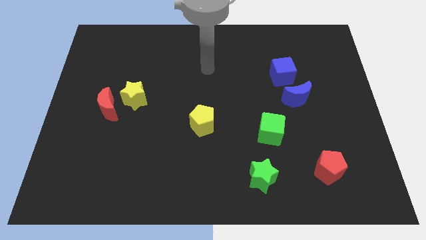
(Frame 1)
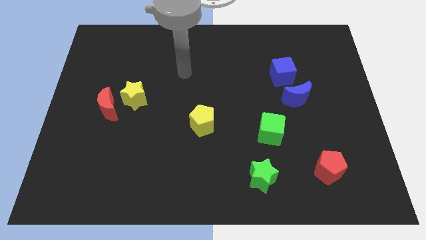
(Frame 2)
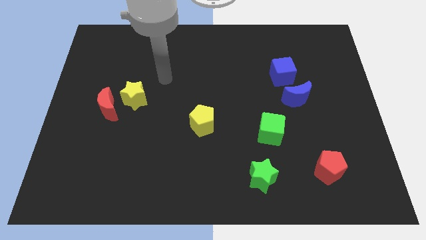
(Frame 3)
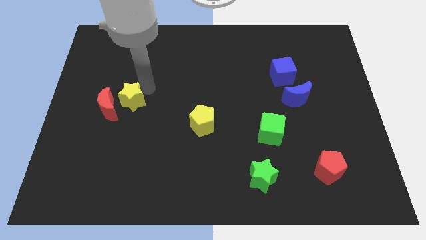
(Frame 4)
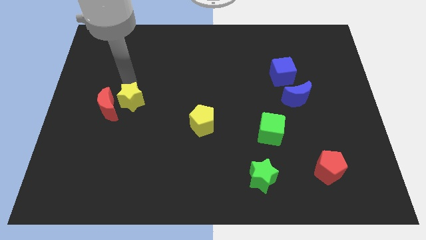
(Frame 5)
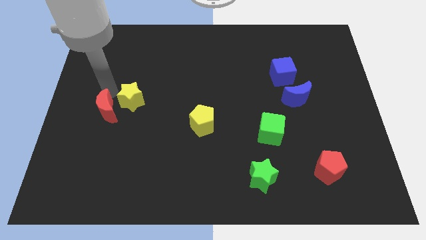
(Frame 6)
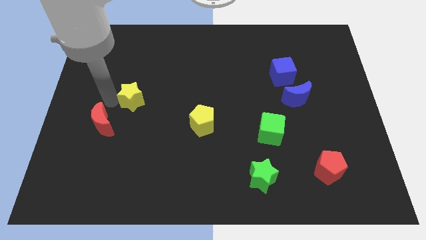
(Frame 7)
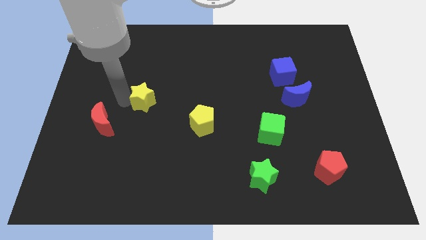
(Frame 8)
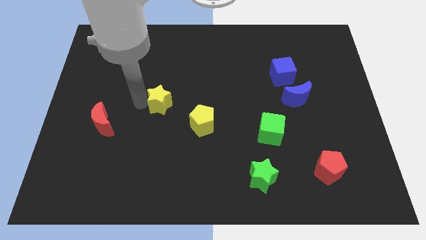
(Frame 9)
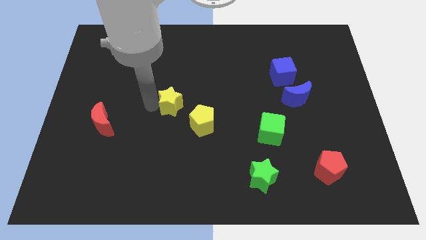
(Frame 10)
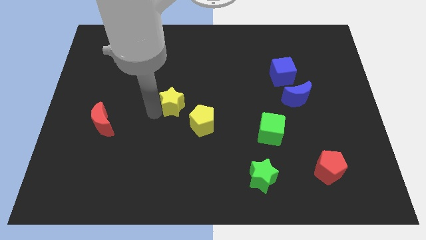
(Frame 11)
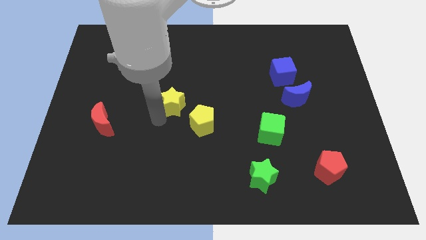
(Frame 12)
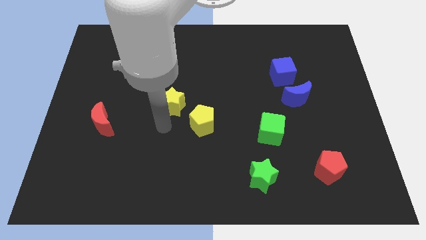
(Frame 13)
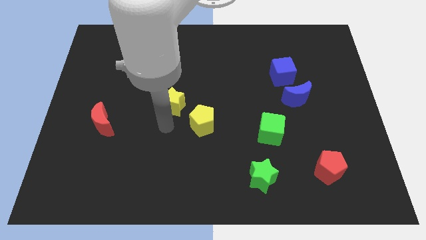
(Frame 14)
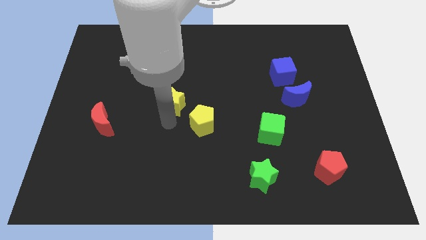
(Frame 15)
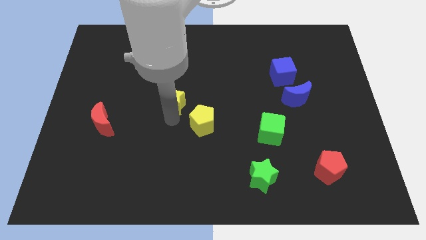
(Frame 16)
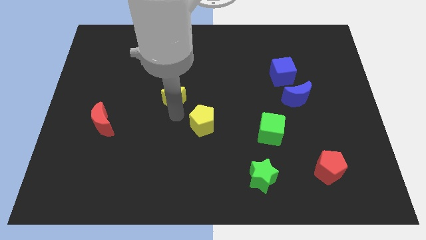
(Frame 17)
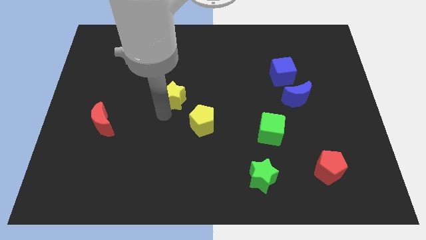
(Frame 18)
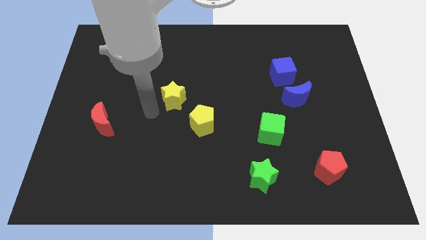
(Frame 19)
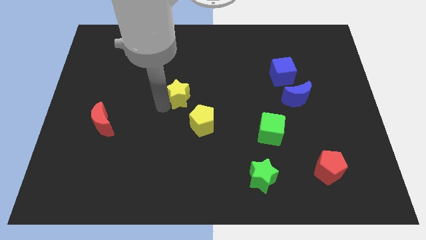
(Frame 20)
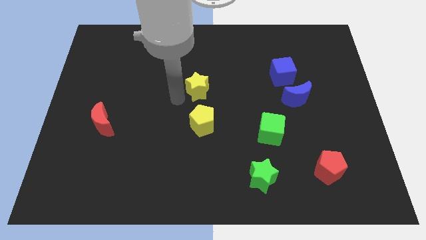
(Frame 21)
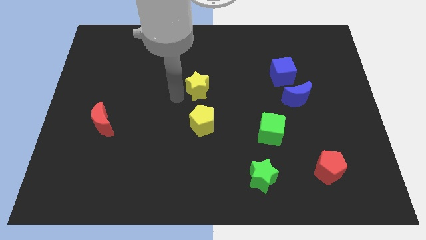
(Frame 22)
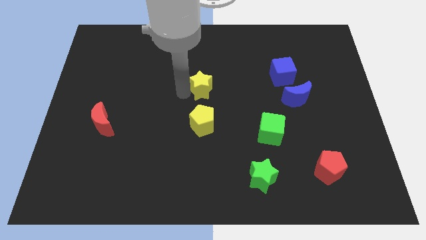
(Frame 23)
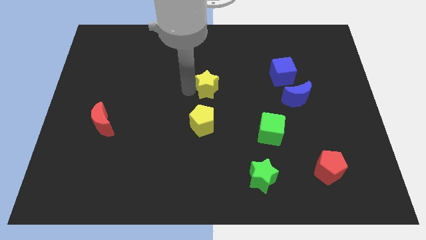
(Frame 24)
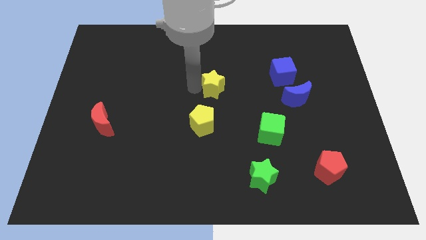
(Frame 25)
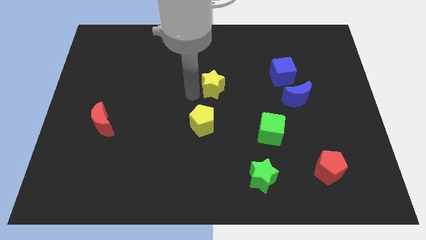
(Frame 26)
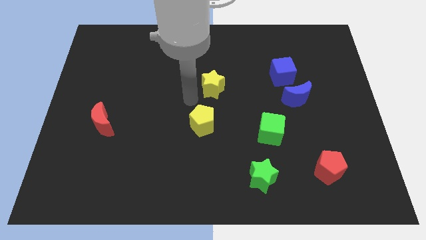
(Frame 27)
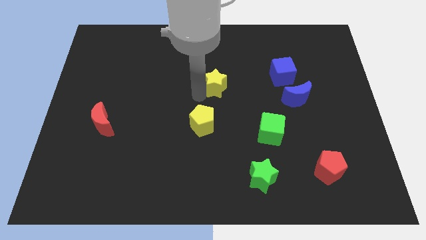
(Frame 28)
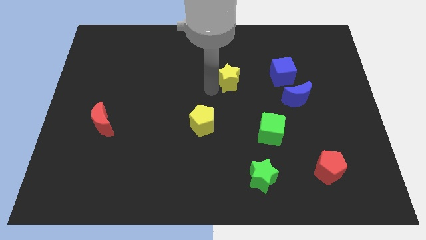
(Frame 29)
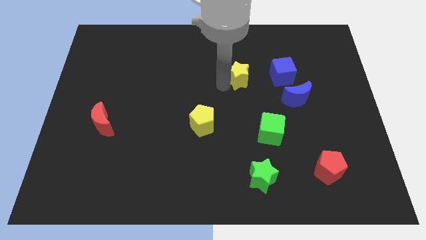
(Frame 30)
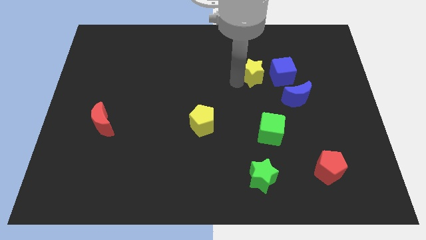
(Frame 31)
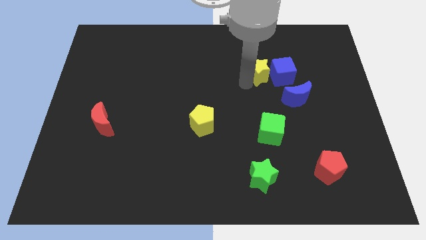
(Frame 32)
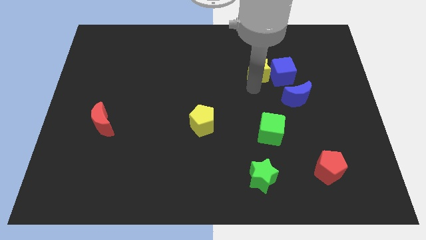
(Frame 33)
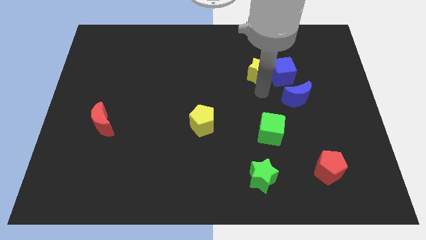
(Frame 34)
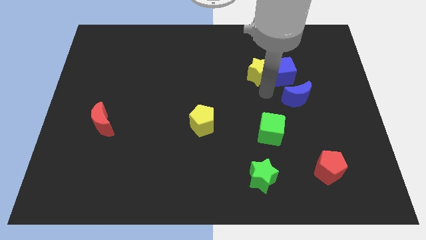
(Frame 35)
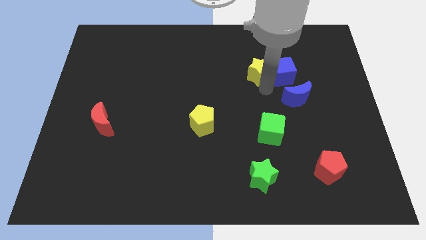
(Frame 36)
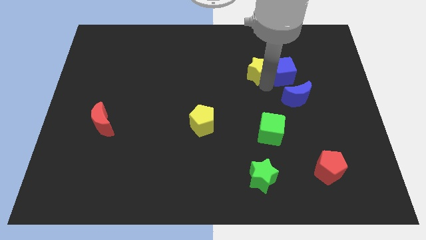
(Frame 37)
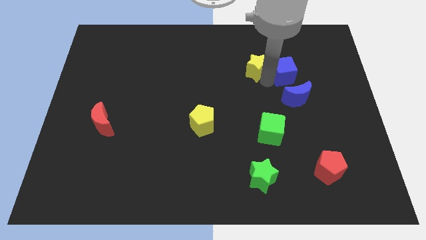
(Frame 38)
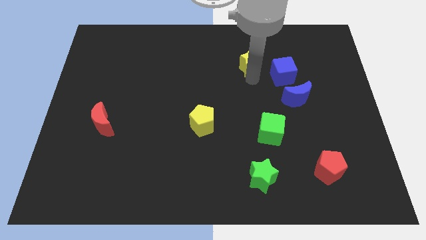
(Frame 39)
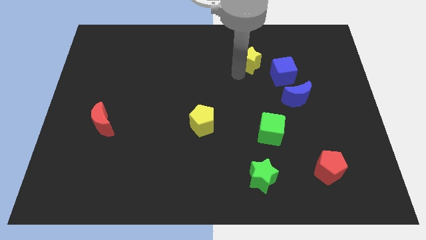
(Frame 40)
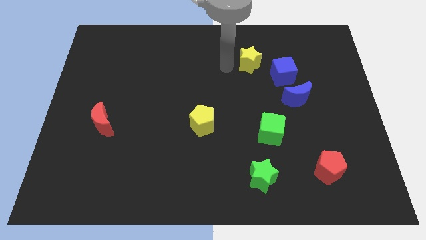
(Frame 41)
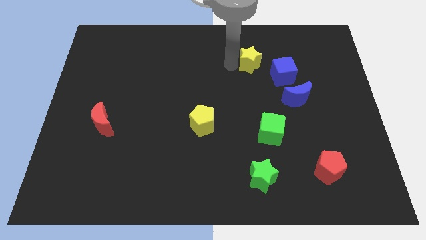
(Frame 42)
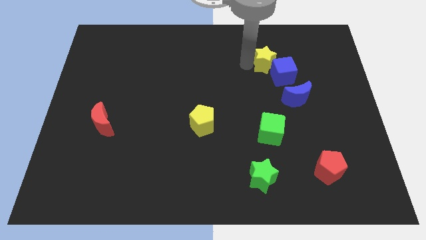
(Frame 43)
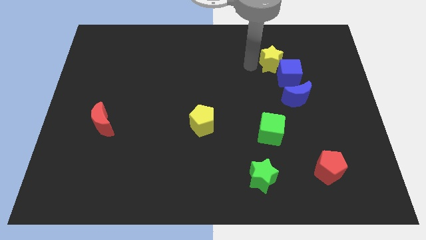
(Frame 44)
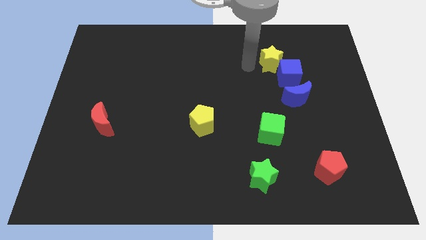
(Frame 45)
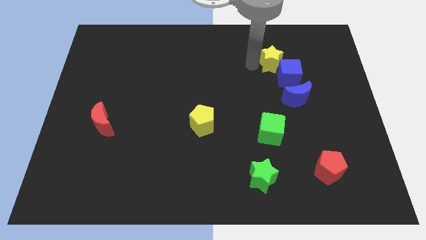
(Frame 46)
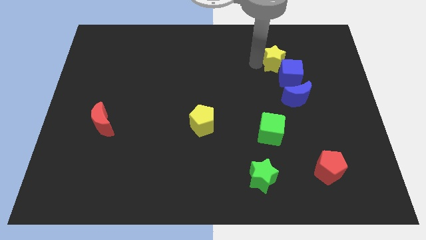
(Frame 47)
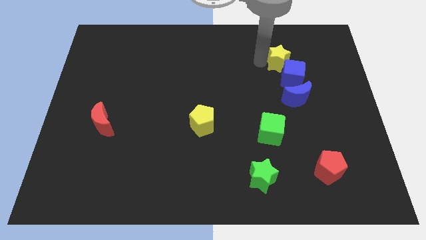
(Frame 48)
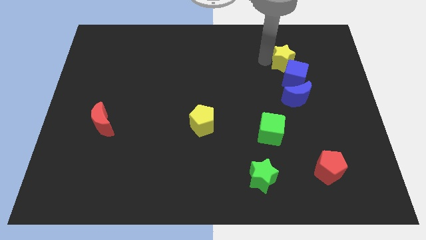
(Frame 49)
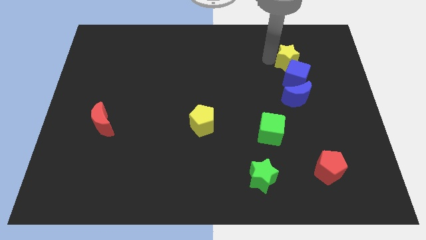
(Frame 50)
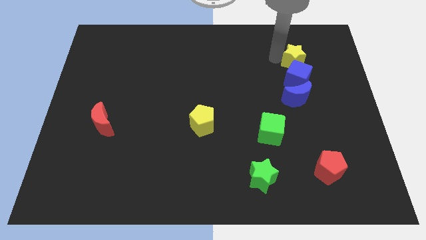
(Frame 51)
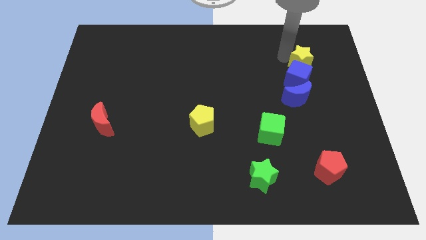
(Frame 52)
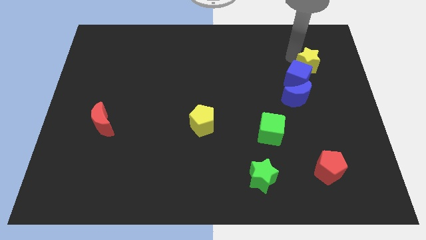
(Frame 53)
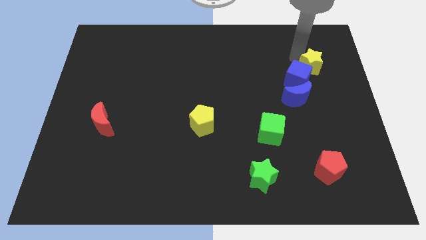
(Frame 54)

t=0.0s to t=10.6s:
move the yellow star to the right side of the blue cube

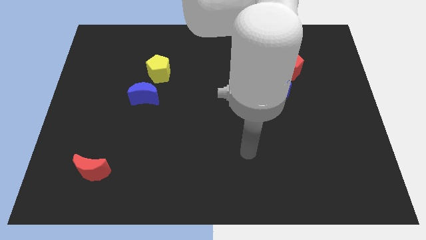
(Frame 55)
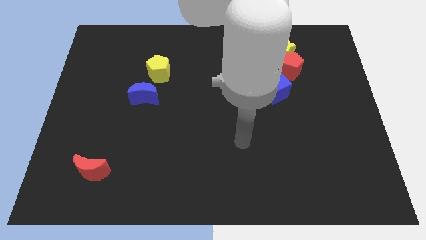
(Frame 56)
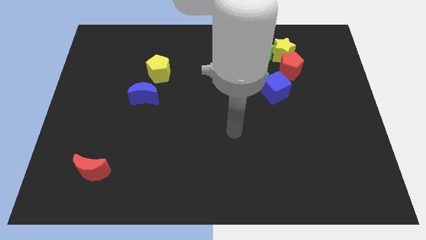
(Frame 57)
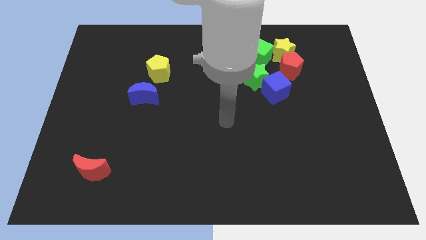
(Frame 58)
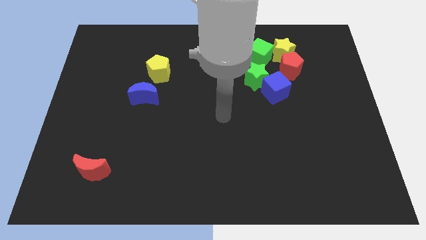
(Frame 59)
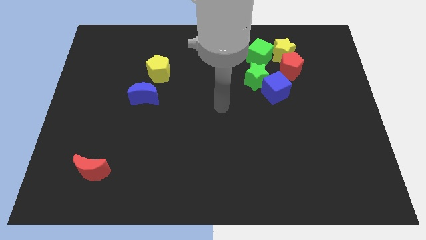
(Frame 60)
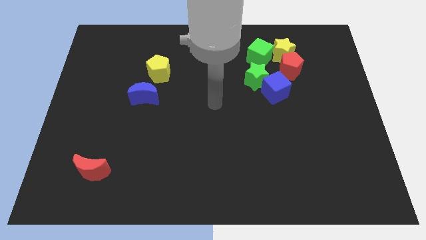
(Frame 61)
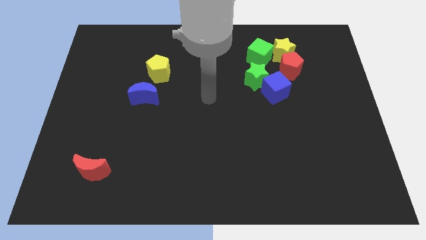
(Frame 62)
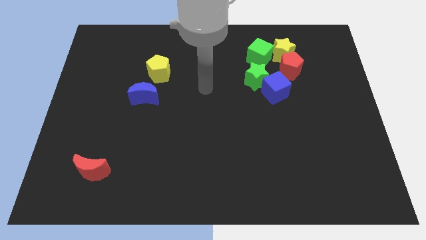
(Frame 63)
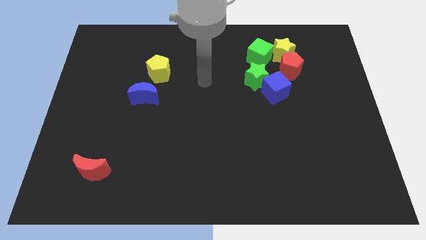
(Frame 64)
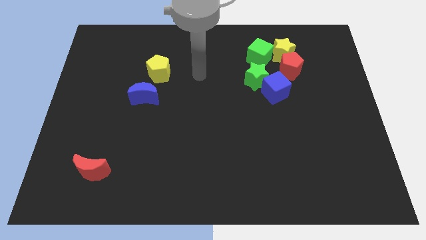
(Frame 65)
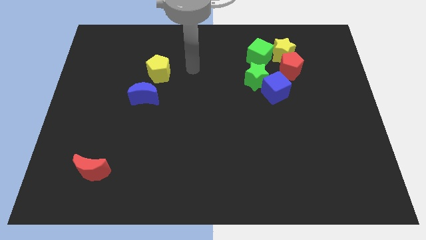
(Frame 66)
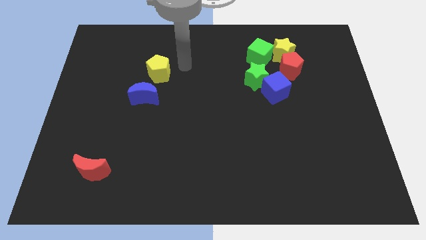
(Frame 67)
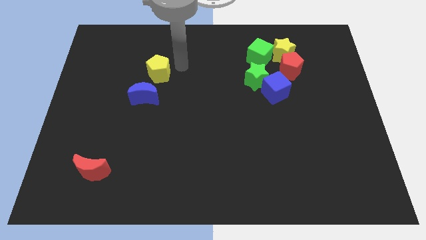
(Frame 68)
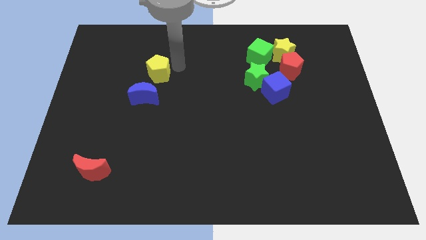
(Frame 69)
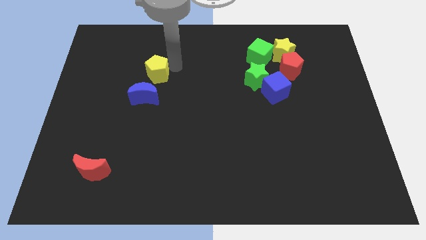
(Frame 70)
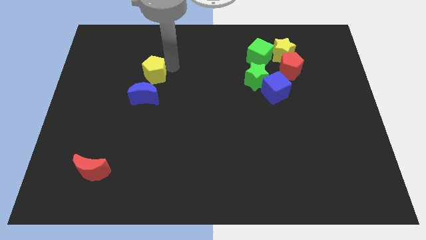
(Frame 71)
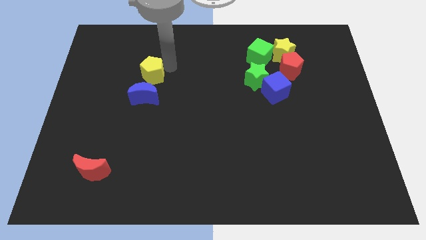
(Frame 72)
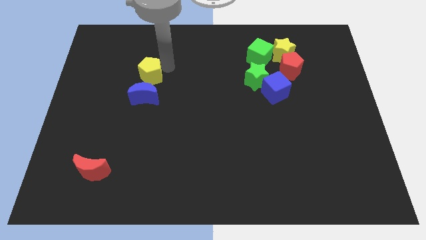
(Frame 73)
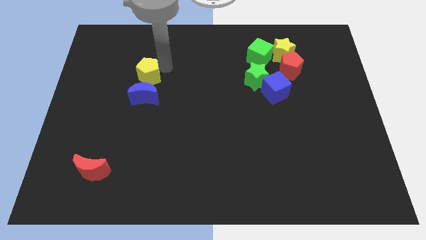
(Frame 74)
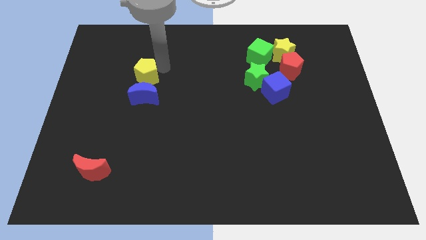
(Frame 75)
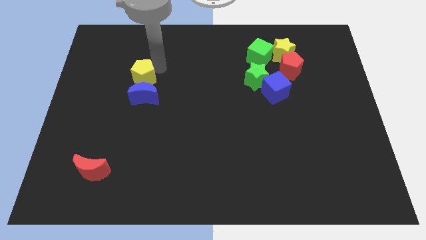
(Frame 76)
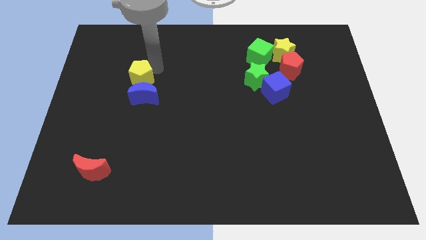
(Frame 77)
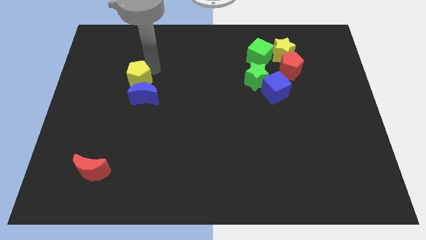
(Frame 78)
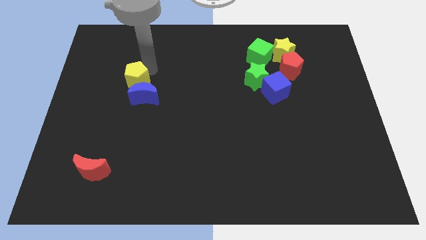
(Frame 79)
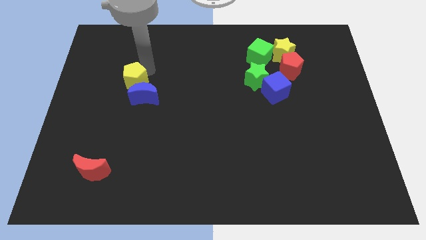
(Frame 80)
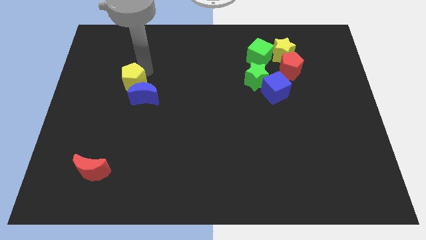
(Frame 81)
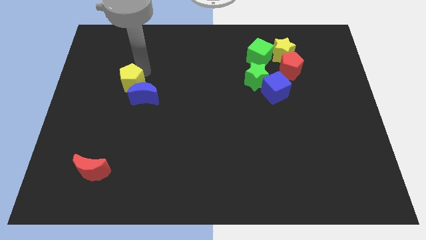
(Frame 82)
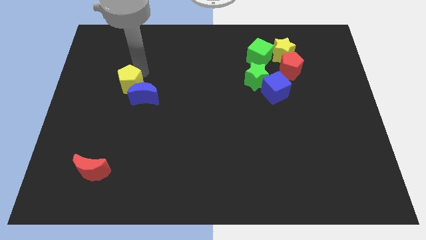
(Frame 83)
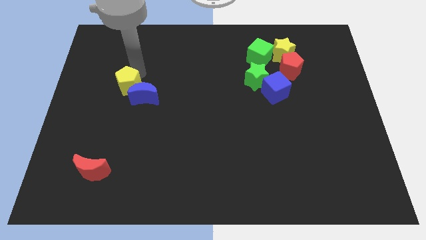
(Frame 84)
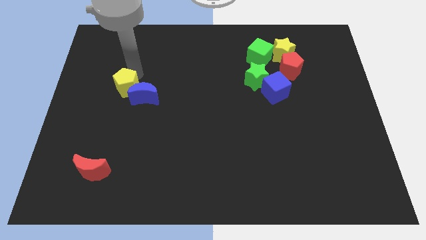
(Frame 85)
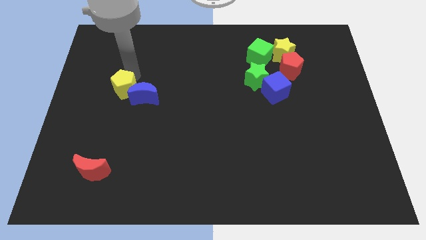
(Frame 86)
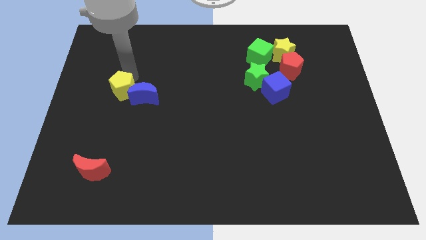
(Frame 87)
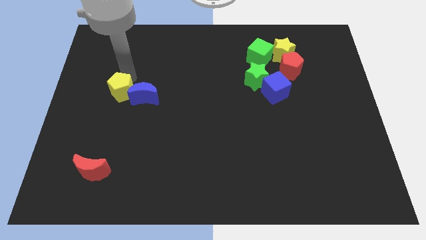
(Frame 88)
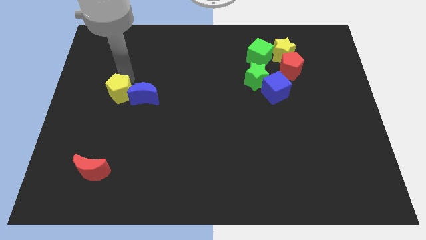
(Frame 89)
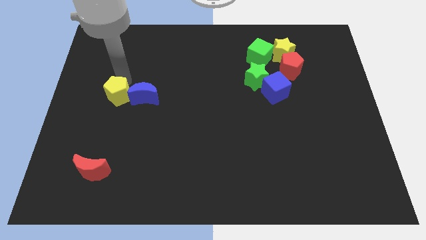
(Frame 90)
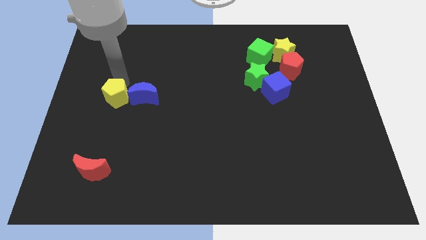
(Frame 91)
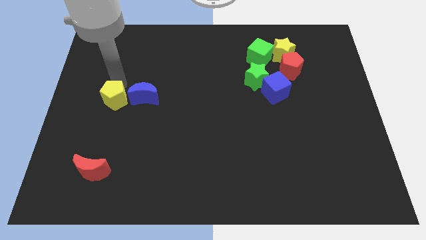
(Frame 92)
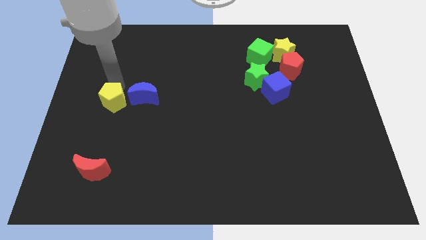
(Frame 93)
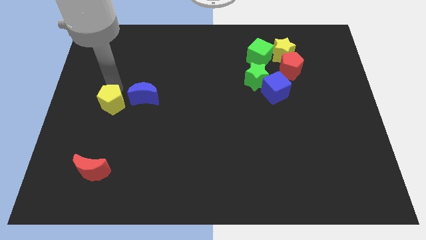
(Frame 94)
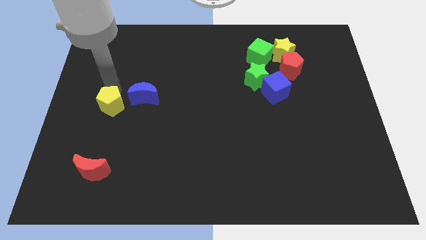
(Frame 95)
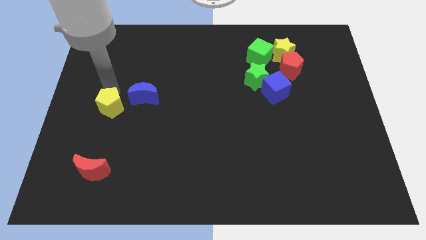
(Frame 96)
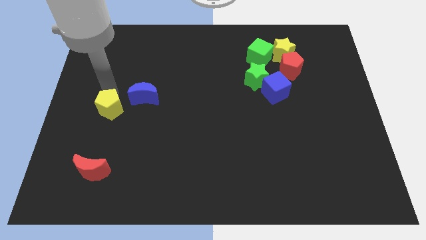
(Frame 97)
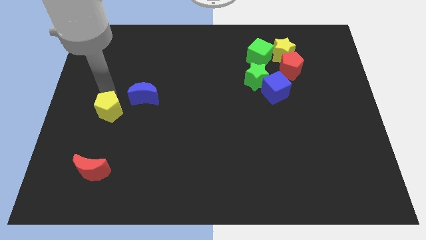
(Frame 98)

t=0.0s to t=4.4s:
push the yellow pentagon above the red moon
